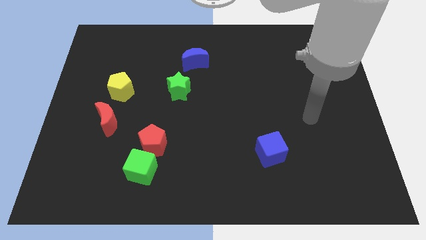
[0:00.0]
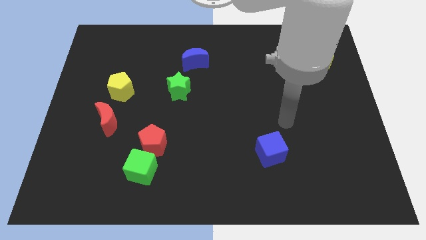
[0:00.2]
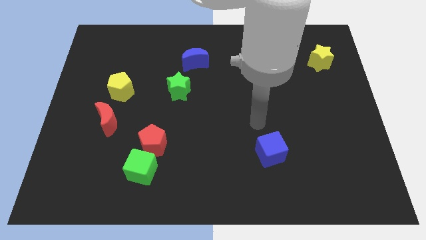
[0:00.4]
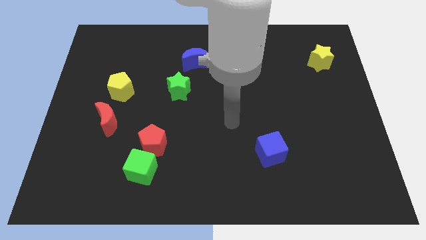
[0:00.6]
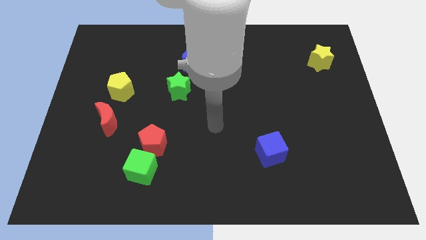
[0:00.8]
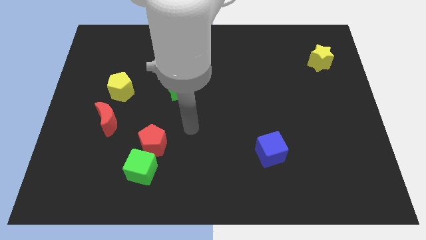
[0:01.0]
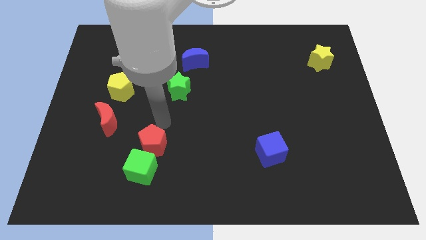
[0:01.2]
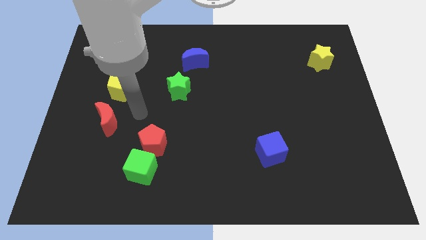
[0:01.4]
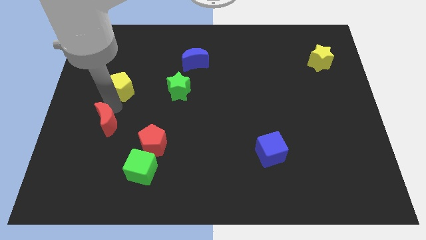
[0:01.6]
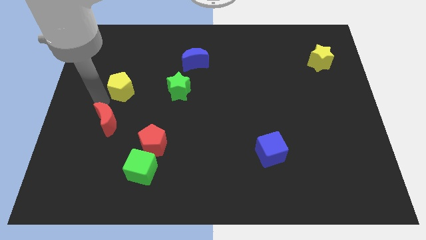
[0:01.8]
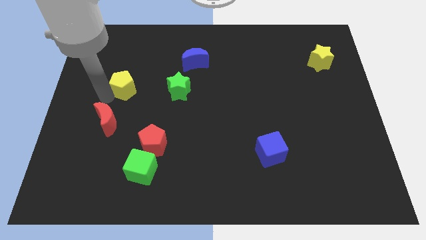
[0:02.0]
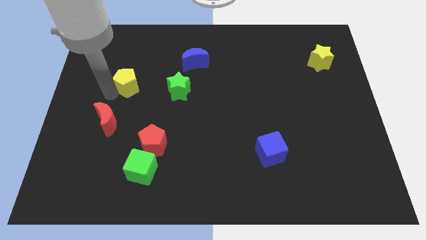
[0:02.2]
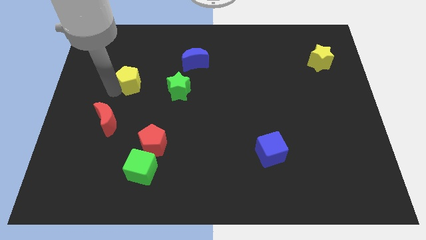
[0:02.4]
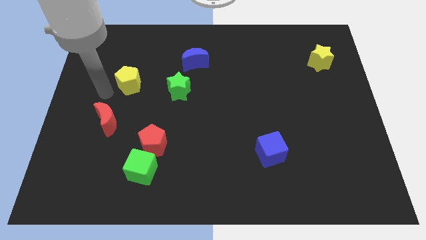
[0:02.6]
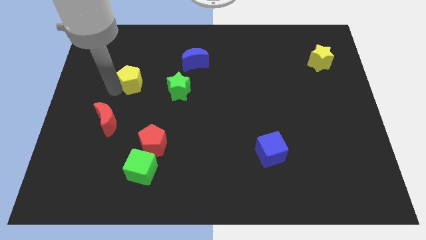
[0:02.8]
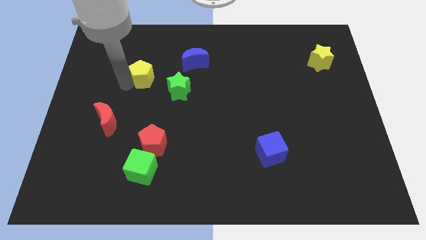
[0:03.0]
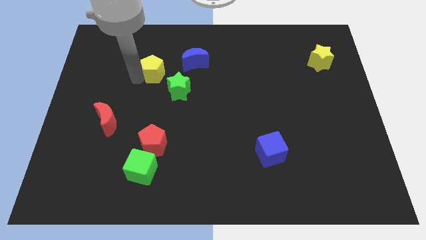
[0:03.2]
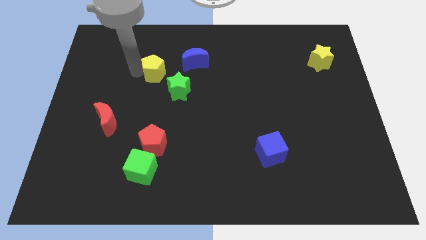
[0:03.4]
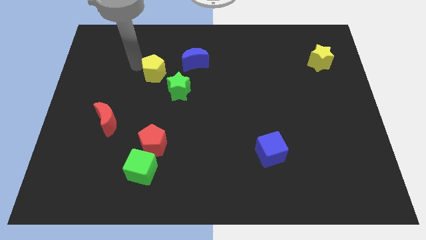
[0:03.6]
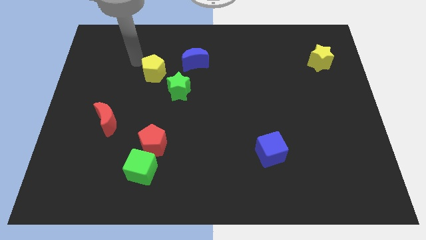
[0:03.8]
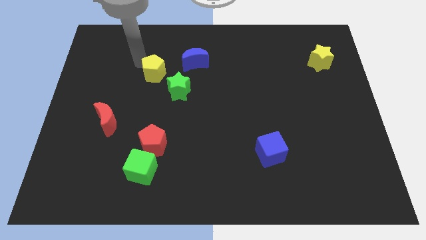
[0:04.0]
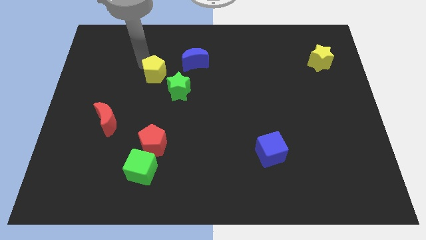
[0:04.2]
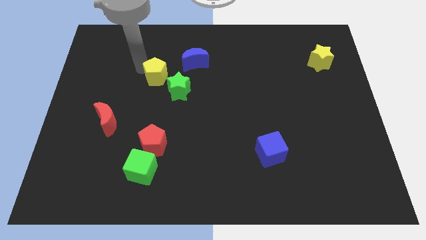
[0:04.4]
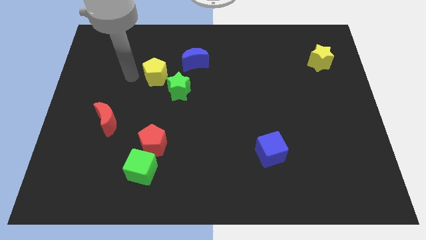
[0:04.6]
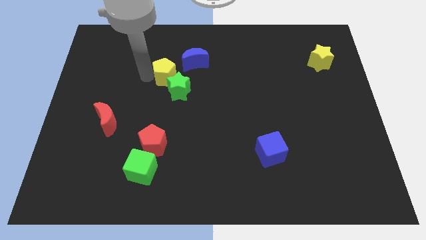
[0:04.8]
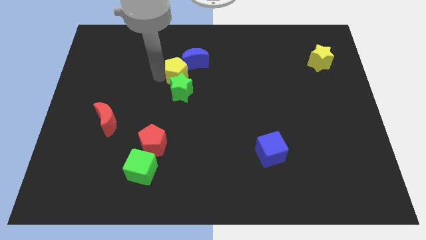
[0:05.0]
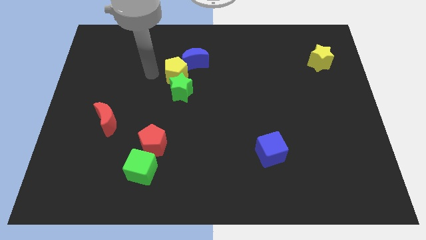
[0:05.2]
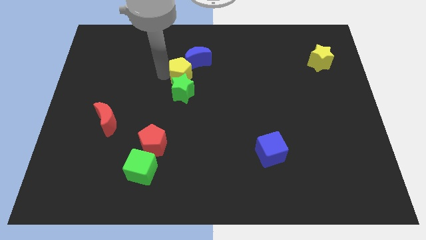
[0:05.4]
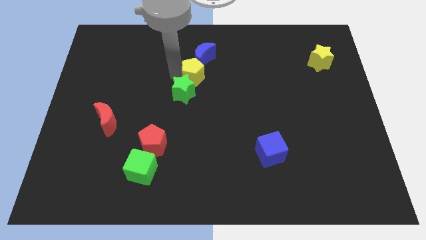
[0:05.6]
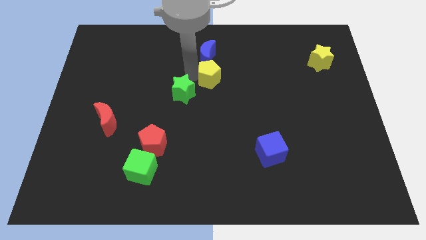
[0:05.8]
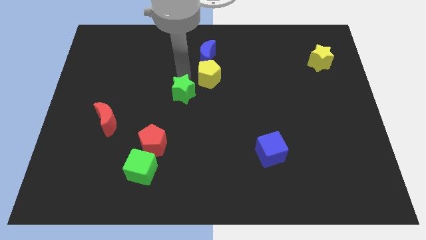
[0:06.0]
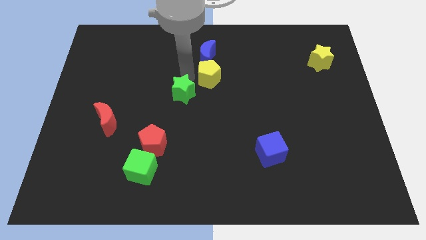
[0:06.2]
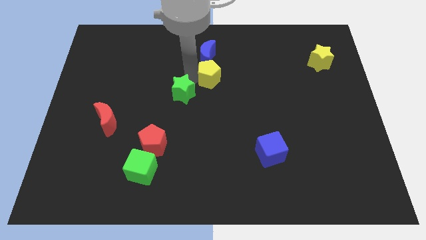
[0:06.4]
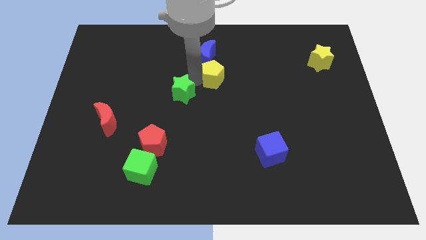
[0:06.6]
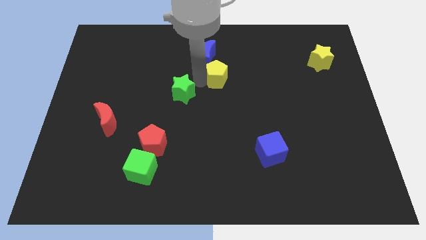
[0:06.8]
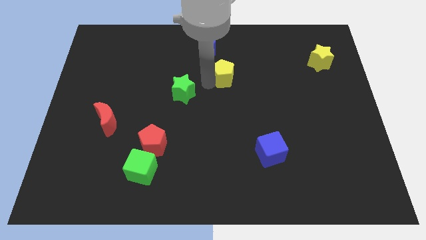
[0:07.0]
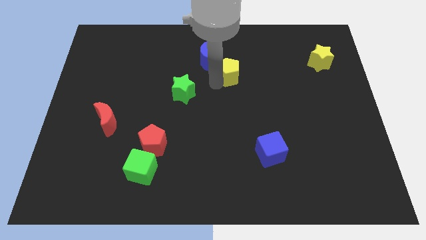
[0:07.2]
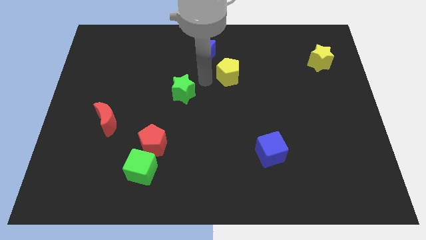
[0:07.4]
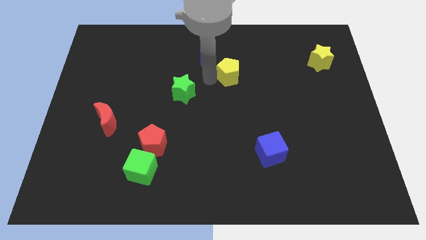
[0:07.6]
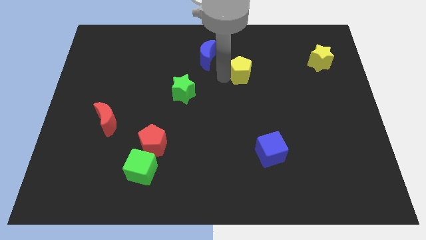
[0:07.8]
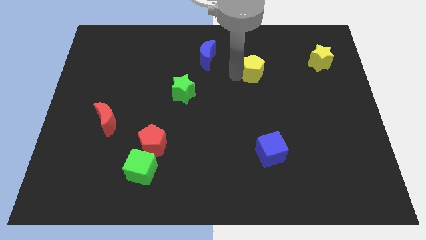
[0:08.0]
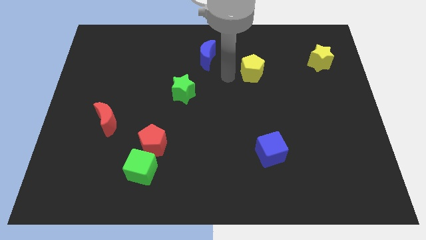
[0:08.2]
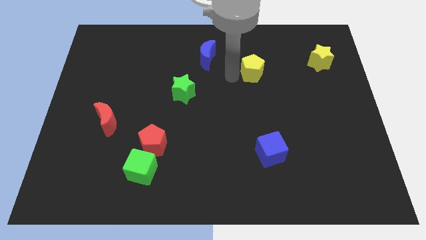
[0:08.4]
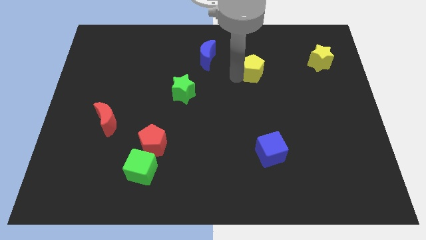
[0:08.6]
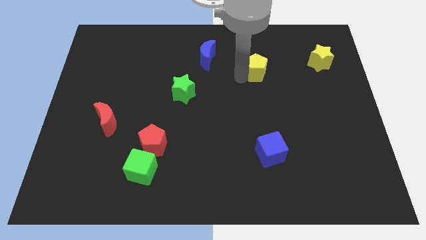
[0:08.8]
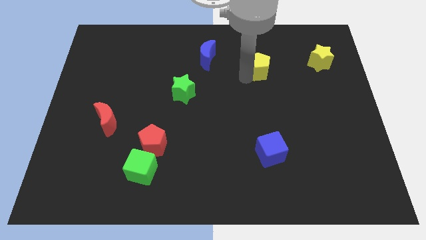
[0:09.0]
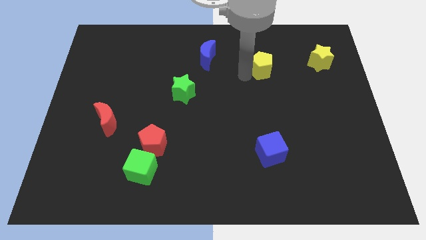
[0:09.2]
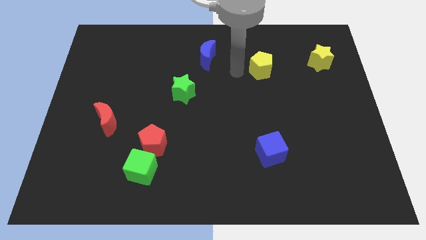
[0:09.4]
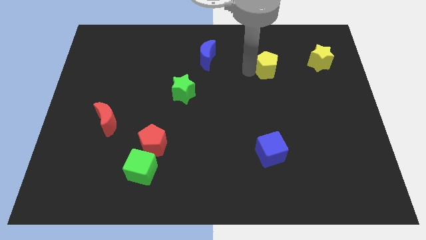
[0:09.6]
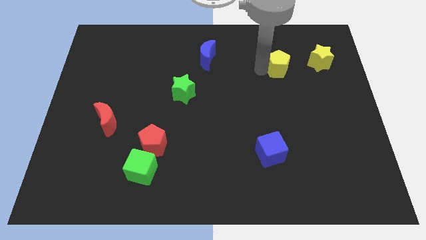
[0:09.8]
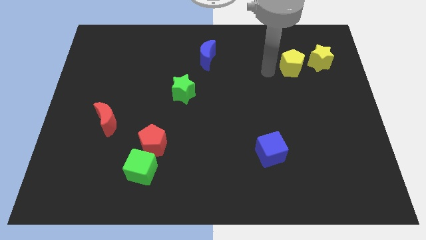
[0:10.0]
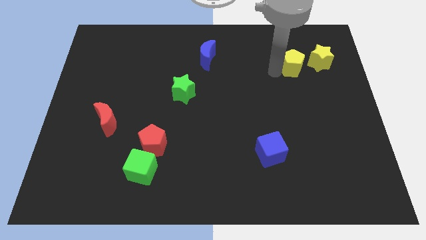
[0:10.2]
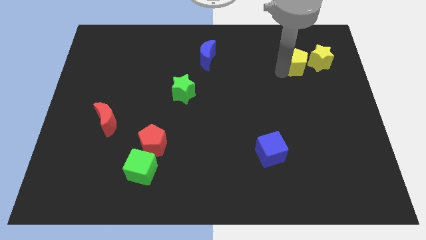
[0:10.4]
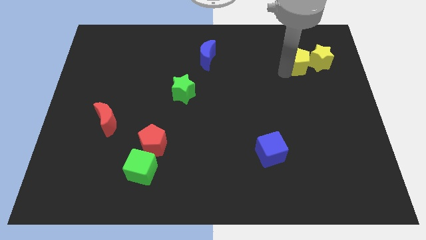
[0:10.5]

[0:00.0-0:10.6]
slide the yellow pentagon close to the yellow star

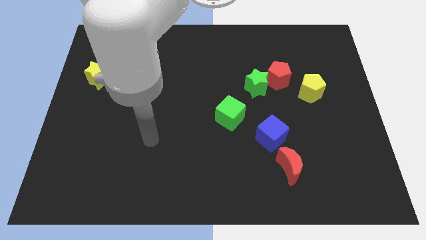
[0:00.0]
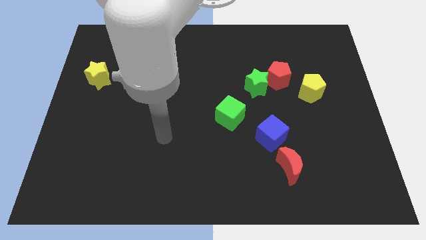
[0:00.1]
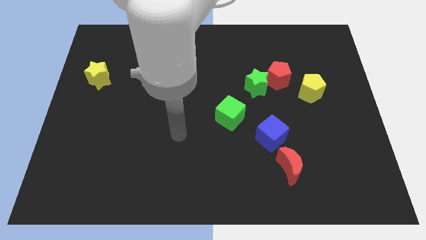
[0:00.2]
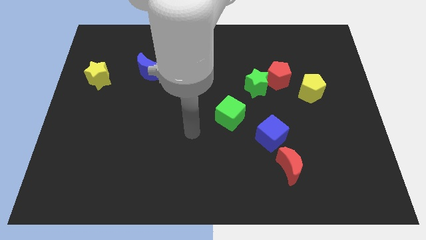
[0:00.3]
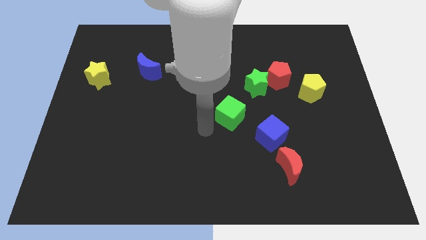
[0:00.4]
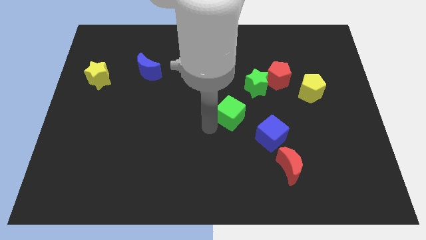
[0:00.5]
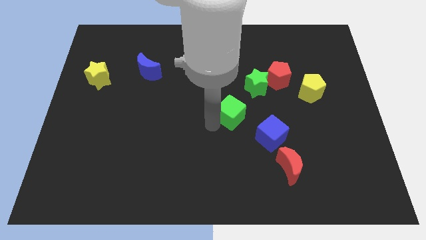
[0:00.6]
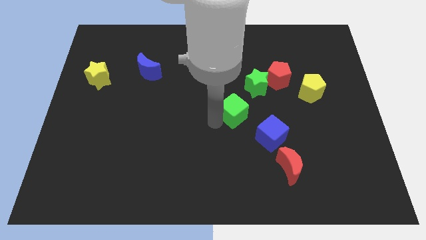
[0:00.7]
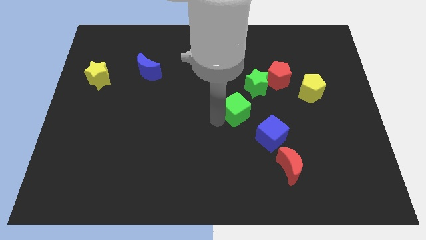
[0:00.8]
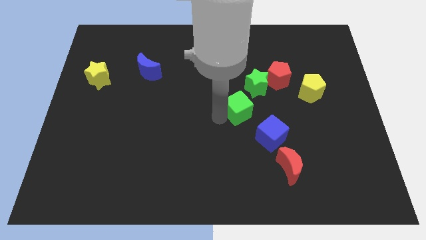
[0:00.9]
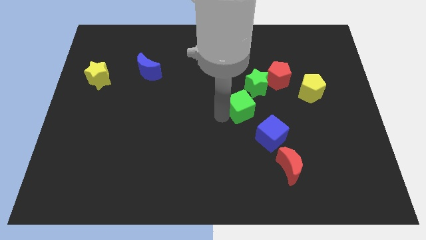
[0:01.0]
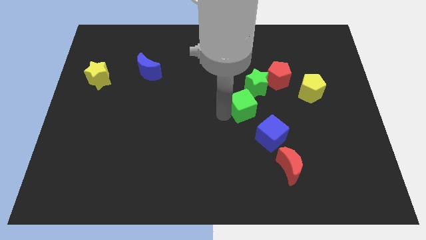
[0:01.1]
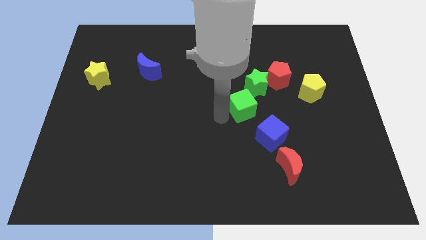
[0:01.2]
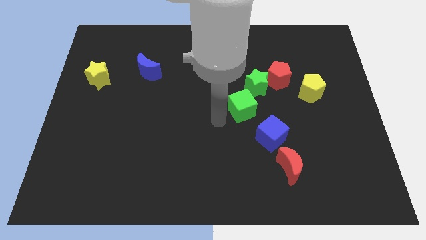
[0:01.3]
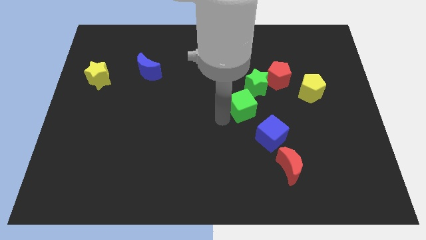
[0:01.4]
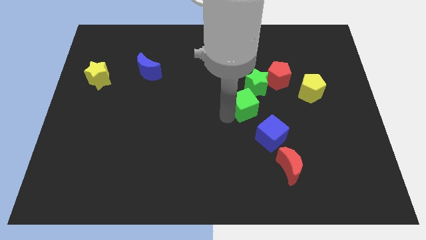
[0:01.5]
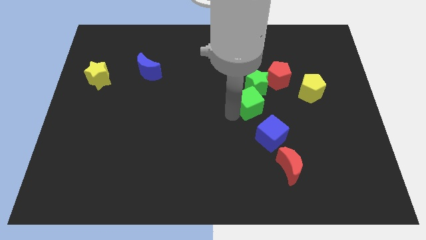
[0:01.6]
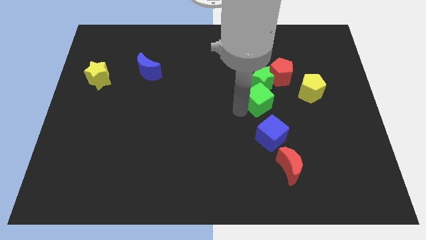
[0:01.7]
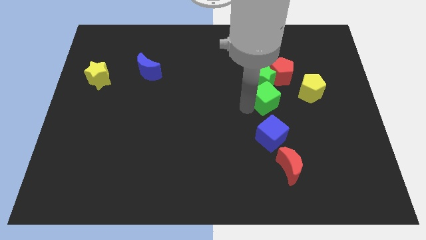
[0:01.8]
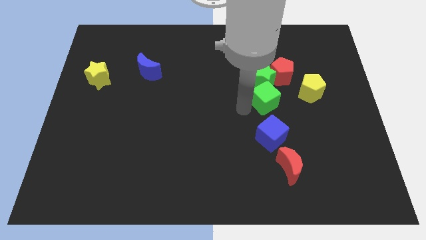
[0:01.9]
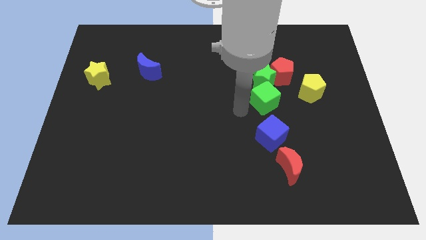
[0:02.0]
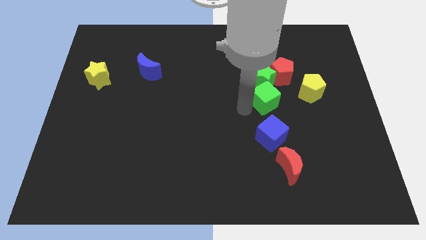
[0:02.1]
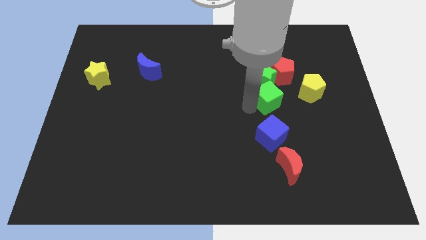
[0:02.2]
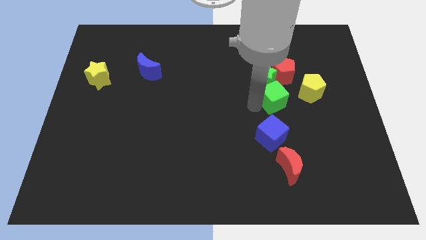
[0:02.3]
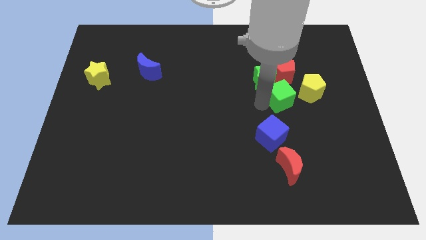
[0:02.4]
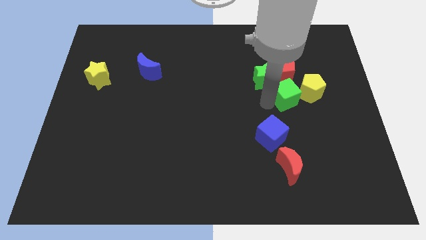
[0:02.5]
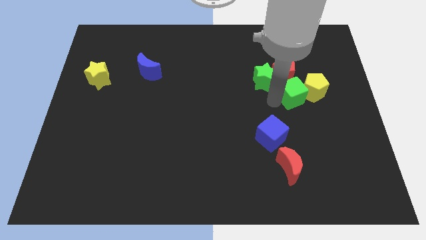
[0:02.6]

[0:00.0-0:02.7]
slide the green cube towards the yellow pentagon

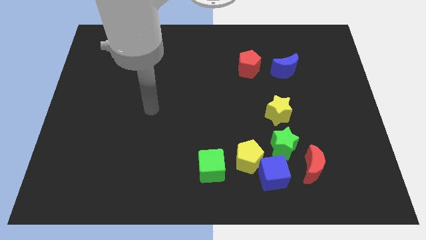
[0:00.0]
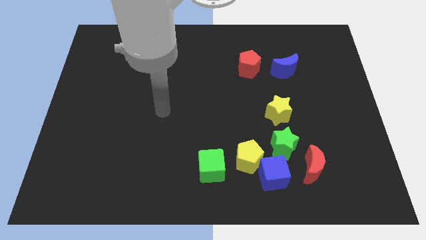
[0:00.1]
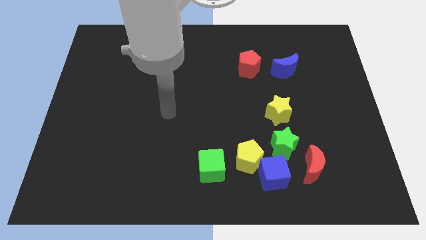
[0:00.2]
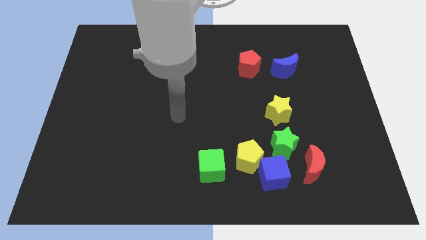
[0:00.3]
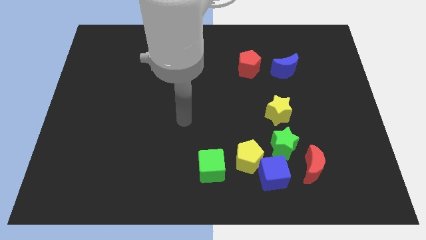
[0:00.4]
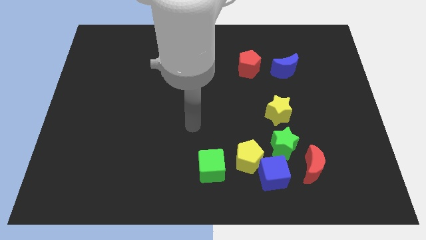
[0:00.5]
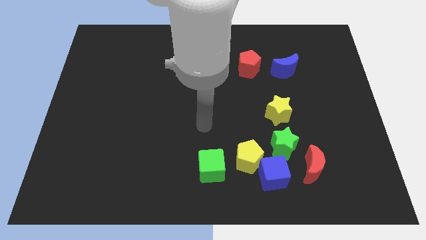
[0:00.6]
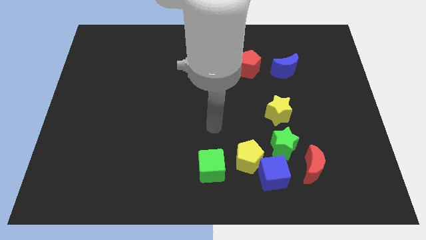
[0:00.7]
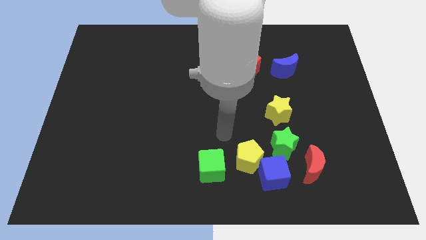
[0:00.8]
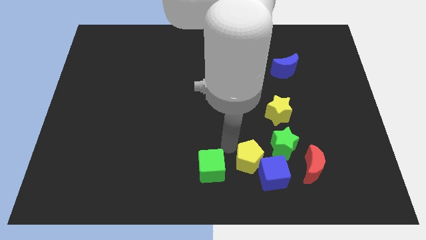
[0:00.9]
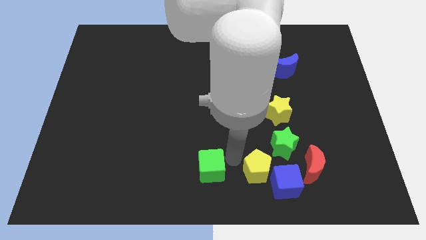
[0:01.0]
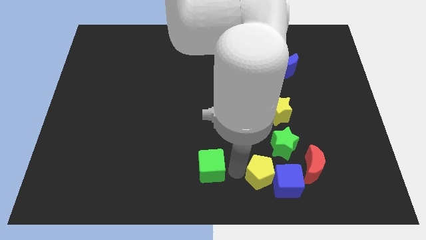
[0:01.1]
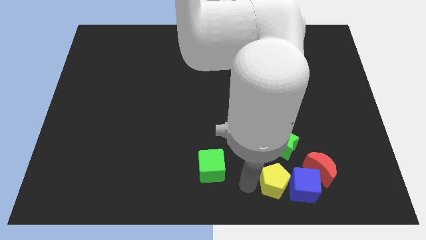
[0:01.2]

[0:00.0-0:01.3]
move the blue cube to the red moon
